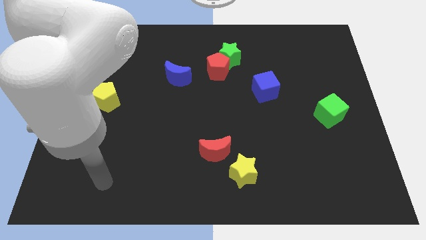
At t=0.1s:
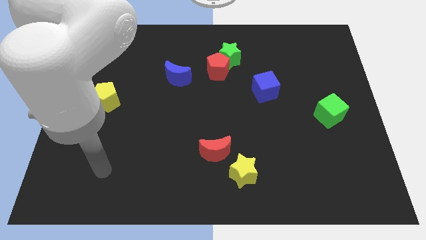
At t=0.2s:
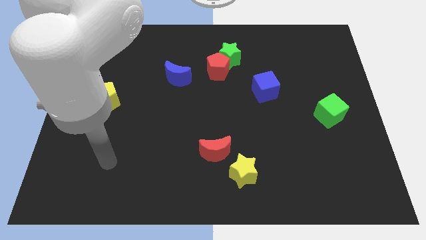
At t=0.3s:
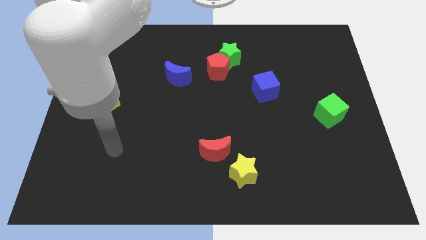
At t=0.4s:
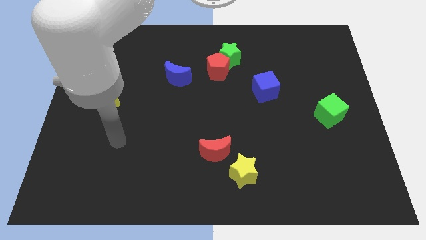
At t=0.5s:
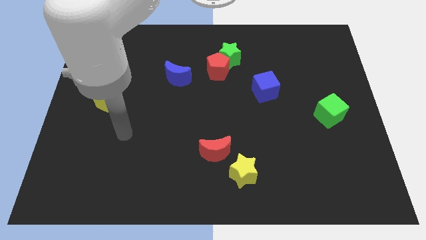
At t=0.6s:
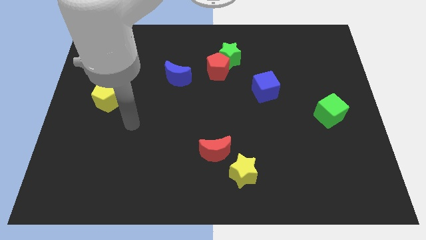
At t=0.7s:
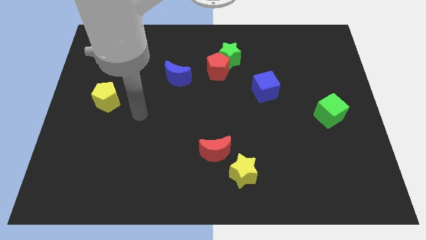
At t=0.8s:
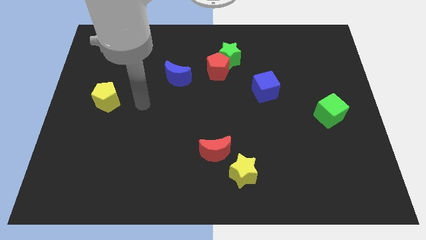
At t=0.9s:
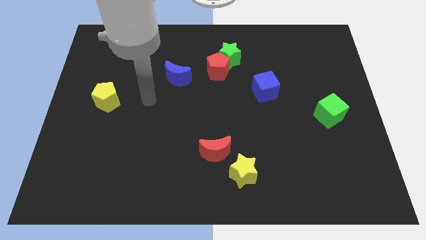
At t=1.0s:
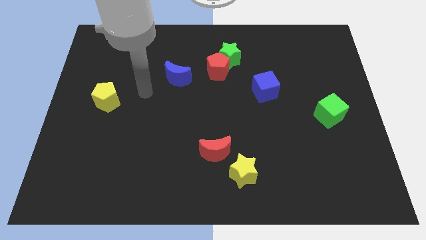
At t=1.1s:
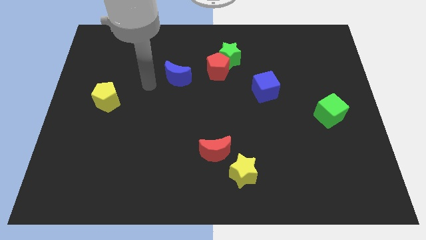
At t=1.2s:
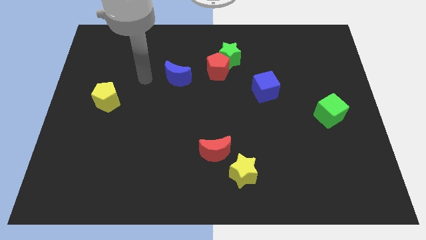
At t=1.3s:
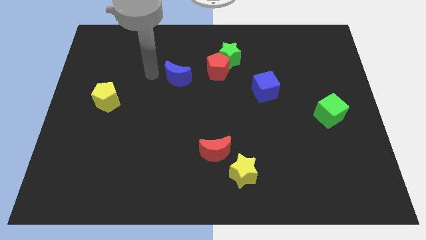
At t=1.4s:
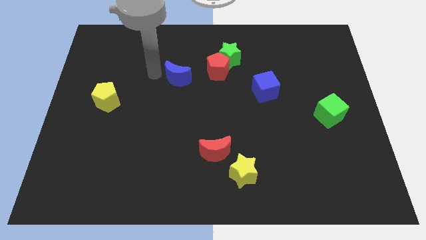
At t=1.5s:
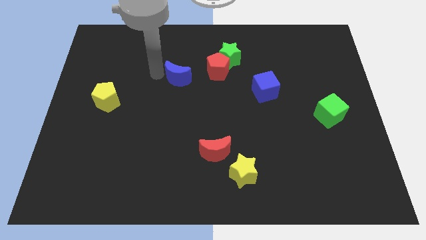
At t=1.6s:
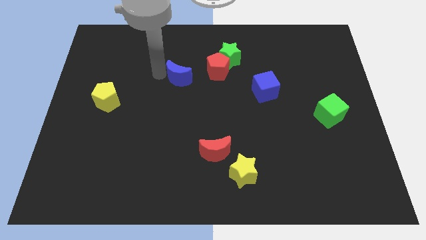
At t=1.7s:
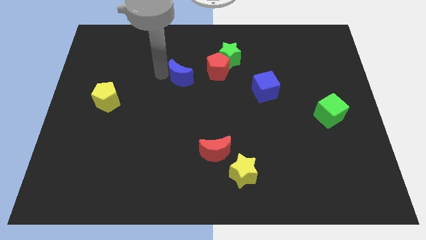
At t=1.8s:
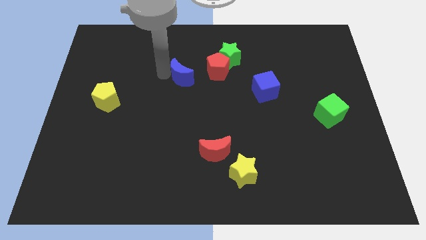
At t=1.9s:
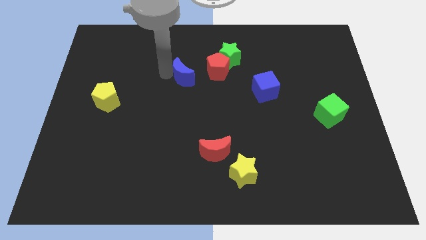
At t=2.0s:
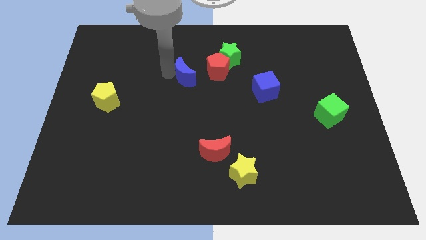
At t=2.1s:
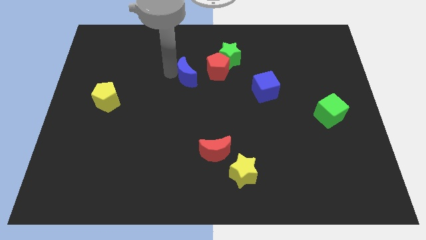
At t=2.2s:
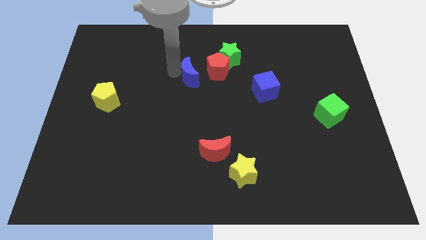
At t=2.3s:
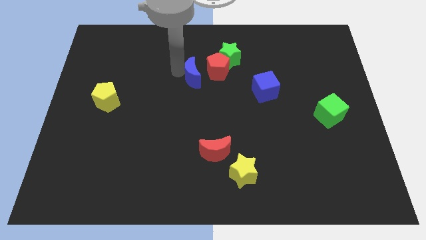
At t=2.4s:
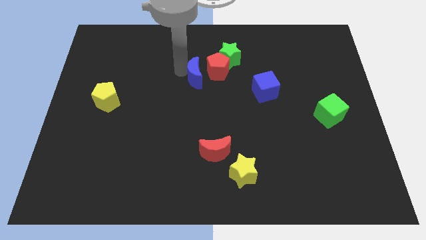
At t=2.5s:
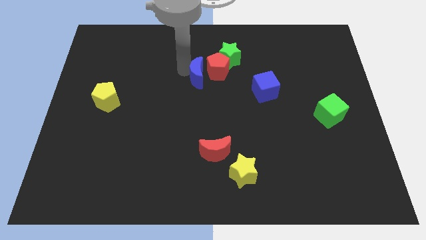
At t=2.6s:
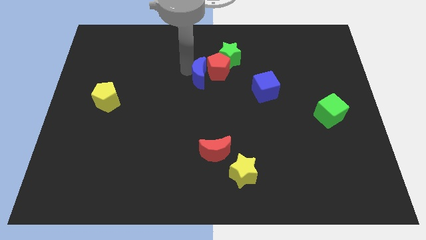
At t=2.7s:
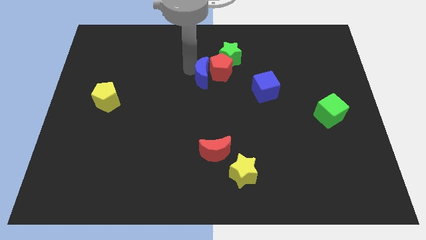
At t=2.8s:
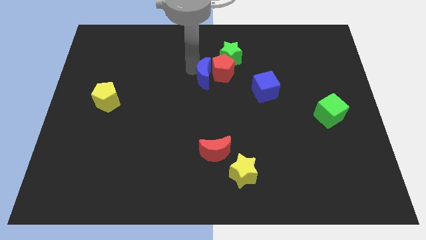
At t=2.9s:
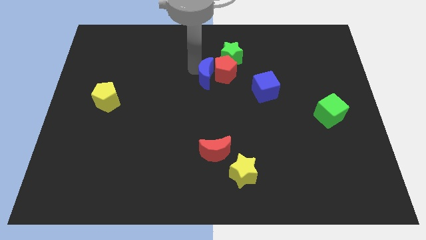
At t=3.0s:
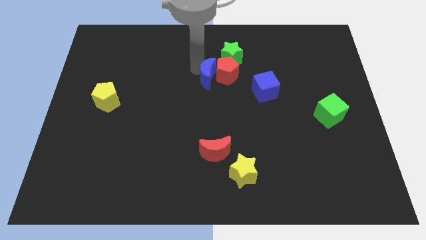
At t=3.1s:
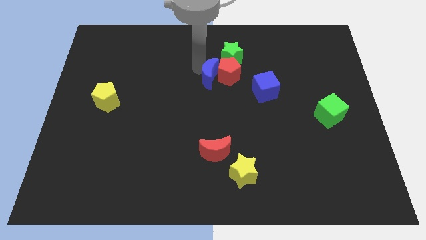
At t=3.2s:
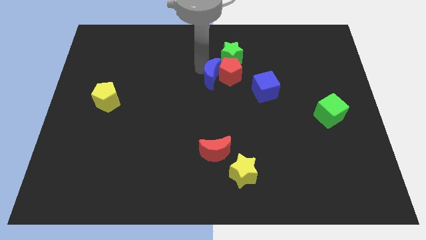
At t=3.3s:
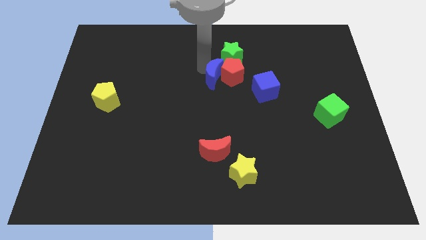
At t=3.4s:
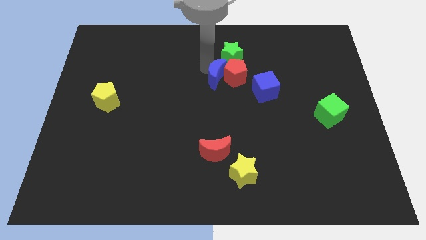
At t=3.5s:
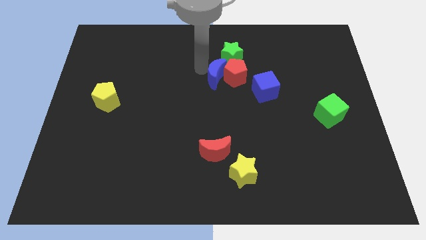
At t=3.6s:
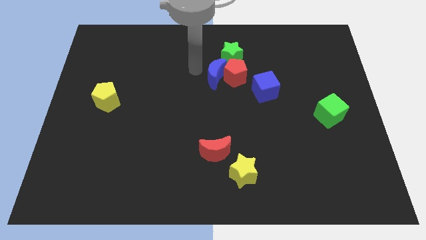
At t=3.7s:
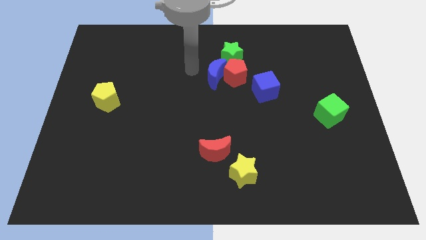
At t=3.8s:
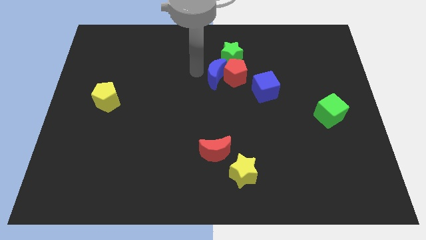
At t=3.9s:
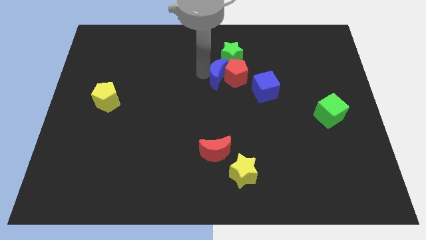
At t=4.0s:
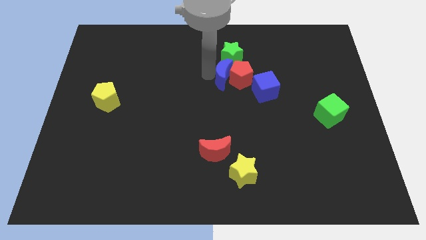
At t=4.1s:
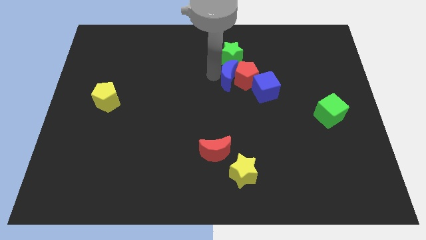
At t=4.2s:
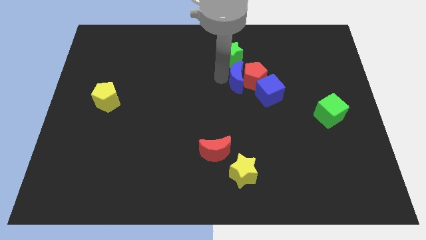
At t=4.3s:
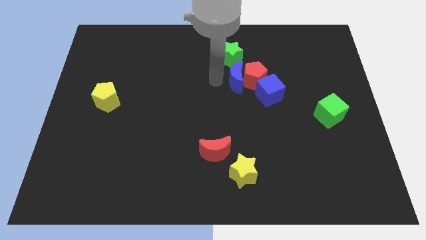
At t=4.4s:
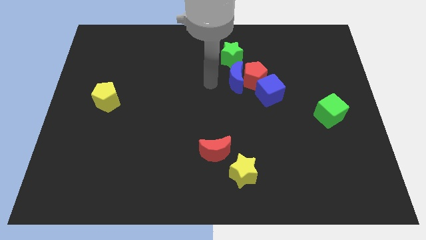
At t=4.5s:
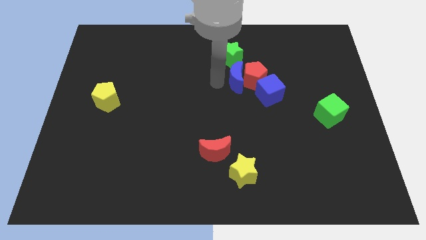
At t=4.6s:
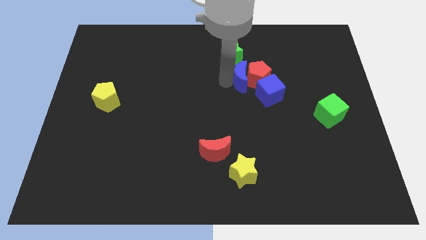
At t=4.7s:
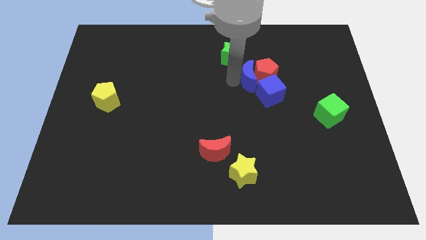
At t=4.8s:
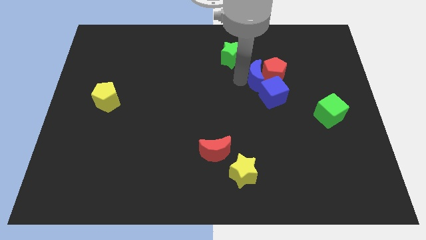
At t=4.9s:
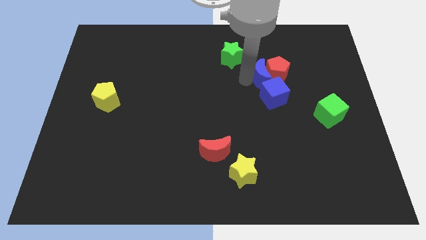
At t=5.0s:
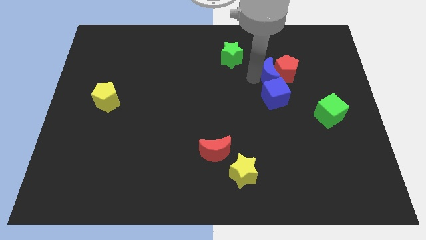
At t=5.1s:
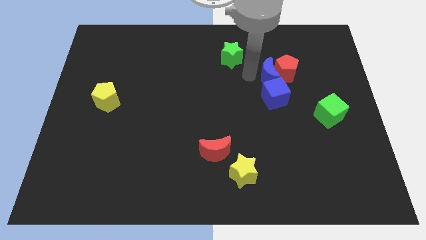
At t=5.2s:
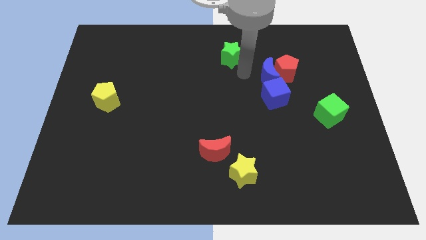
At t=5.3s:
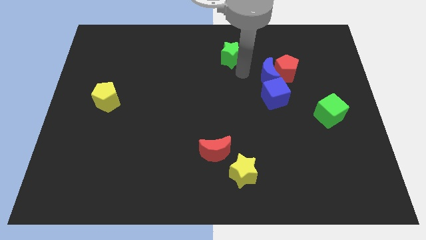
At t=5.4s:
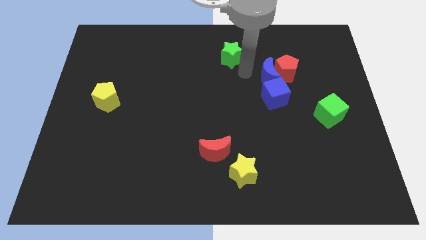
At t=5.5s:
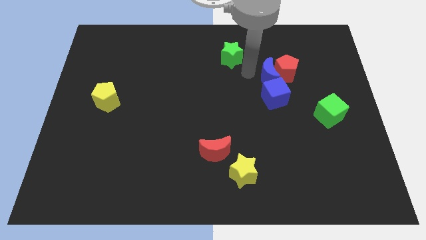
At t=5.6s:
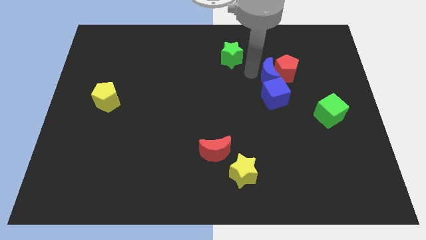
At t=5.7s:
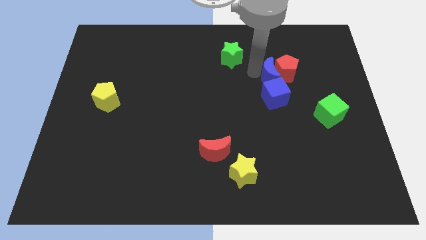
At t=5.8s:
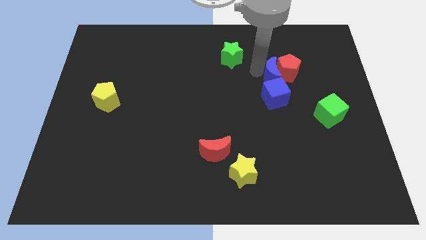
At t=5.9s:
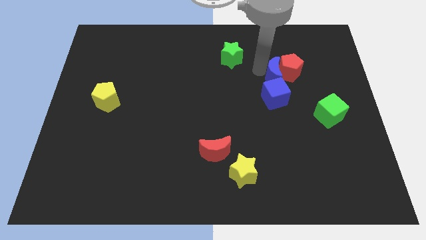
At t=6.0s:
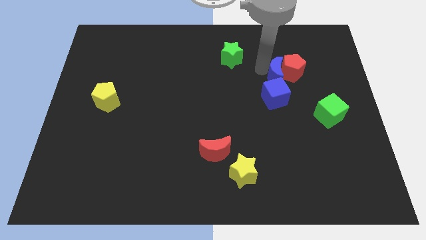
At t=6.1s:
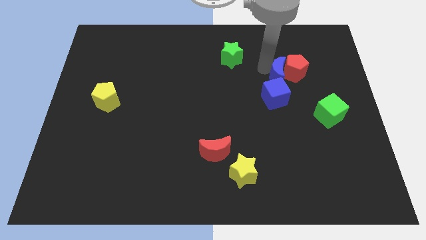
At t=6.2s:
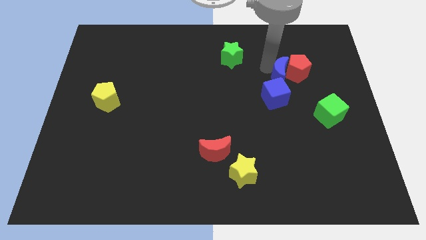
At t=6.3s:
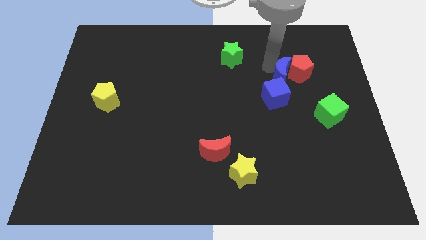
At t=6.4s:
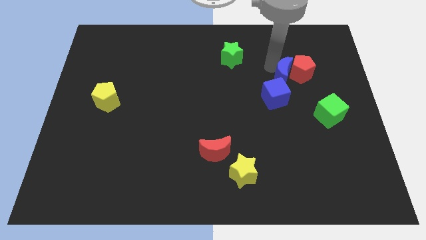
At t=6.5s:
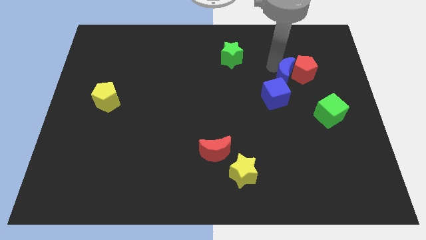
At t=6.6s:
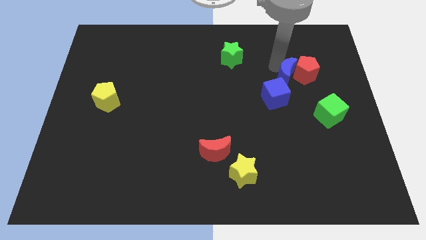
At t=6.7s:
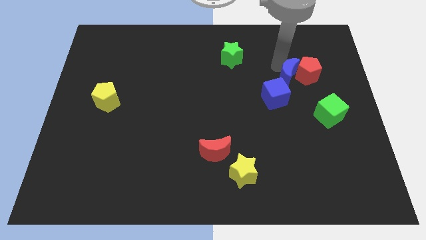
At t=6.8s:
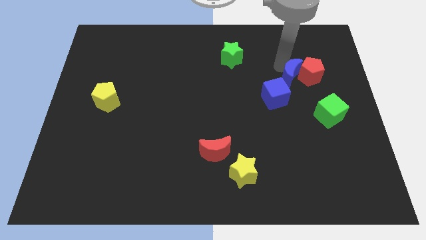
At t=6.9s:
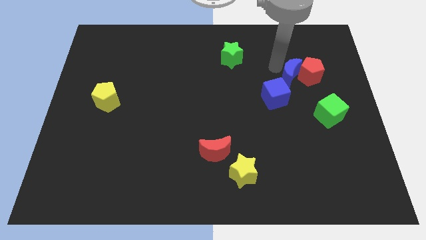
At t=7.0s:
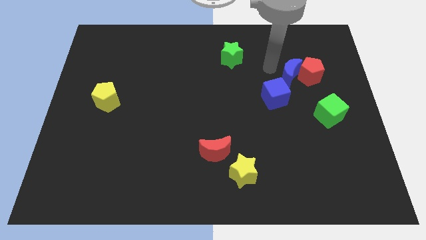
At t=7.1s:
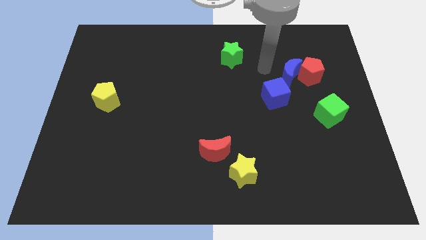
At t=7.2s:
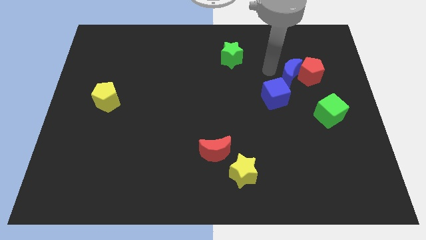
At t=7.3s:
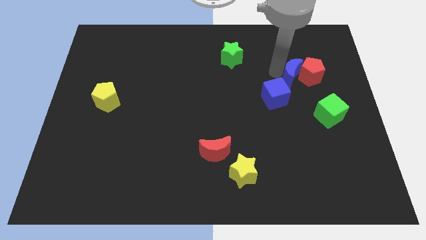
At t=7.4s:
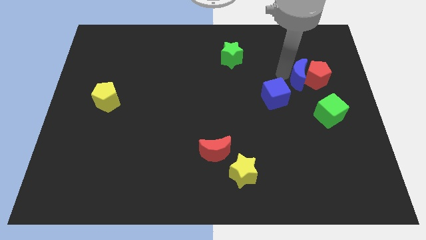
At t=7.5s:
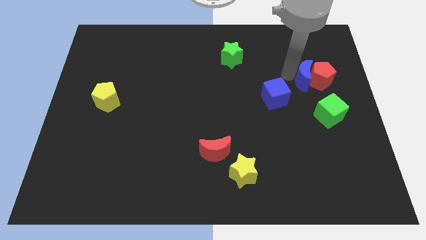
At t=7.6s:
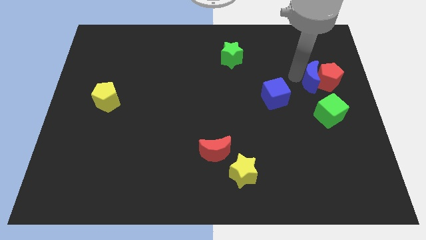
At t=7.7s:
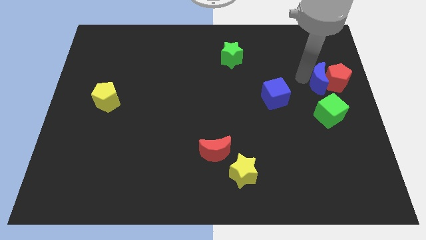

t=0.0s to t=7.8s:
slide the blue moon to the right side
